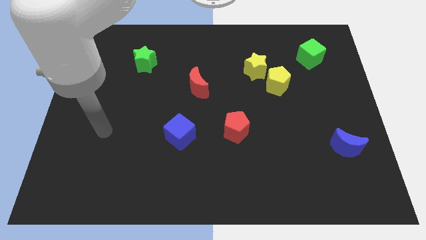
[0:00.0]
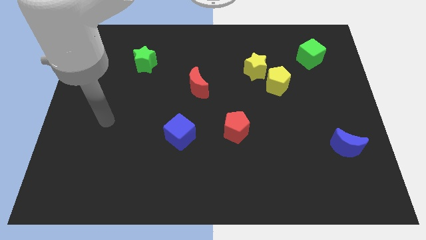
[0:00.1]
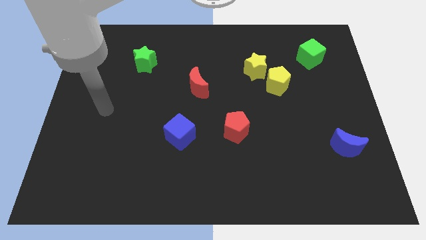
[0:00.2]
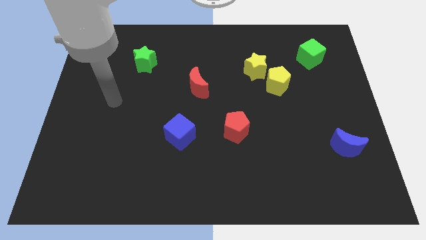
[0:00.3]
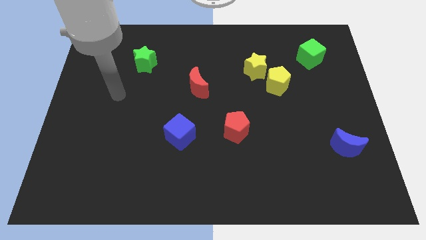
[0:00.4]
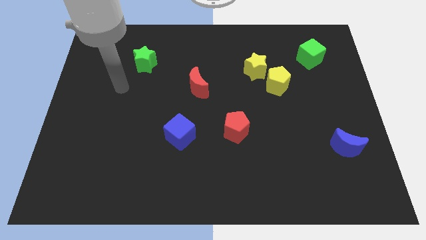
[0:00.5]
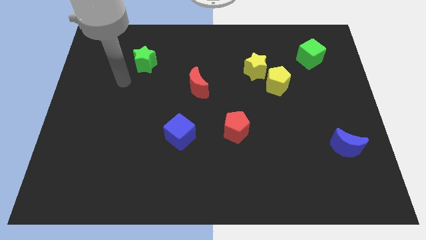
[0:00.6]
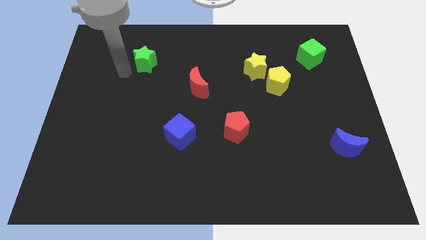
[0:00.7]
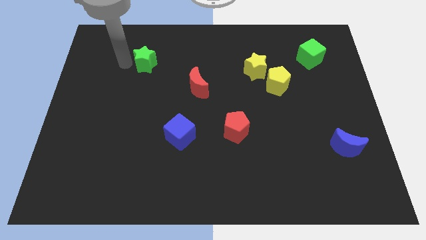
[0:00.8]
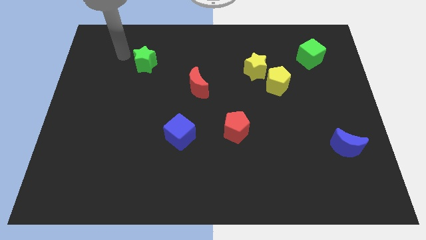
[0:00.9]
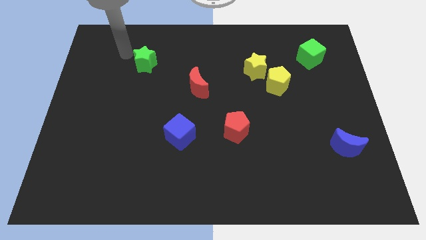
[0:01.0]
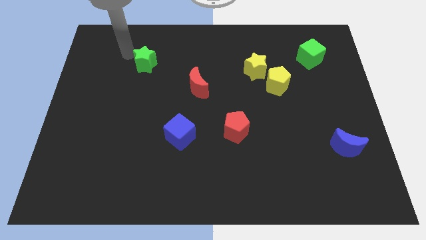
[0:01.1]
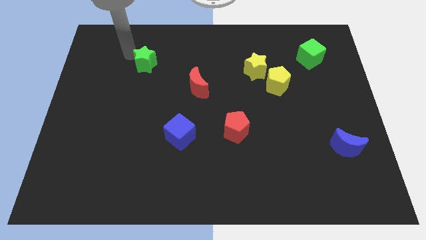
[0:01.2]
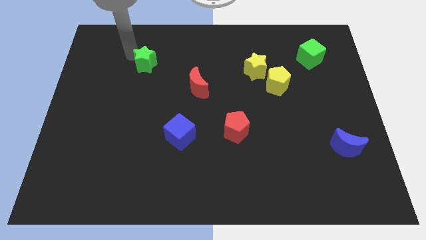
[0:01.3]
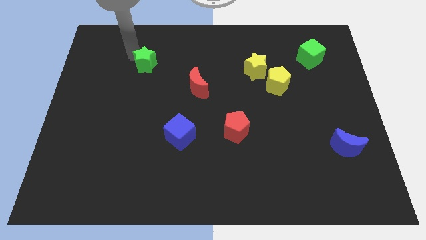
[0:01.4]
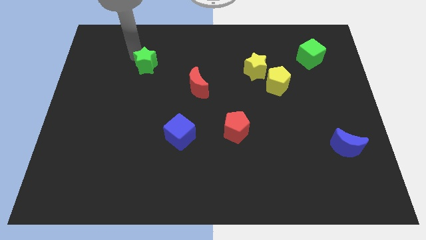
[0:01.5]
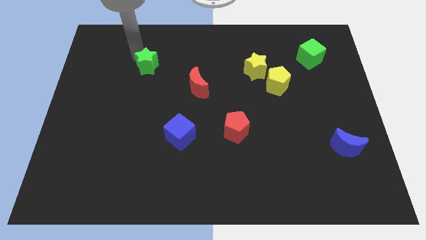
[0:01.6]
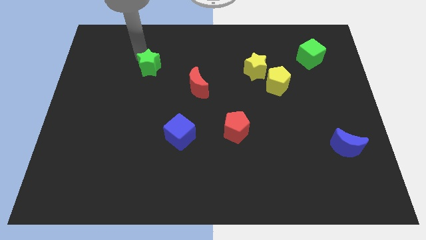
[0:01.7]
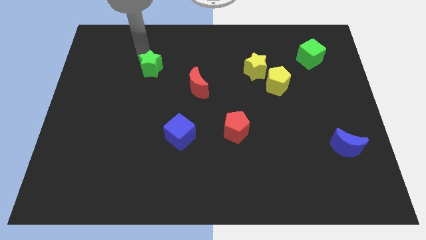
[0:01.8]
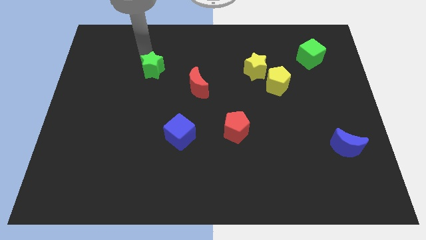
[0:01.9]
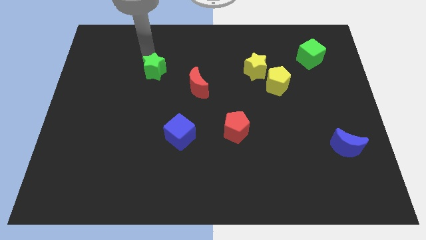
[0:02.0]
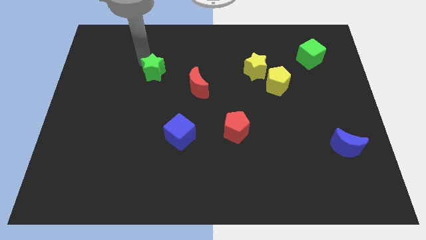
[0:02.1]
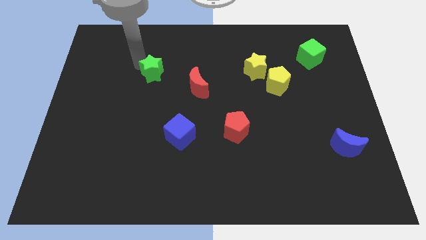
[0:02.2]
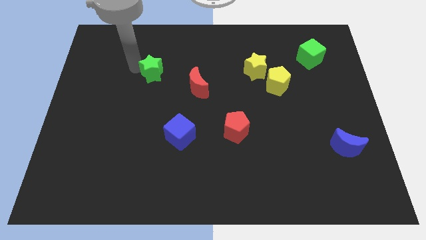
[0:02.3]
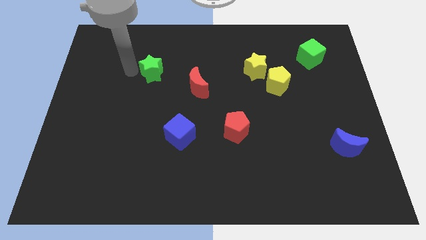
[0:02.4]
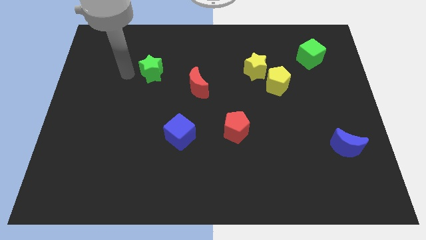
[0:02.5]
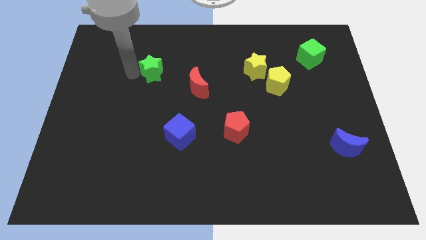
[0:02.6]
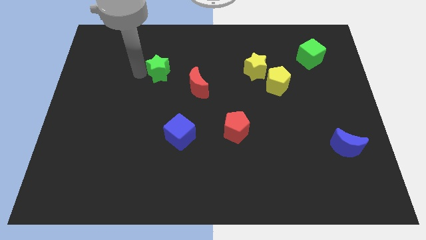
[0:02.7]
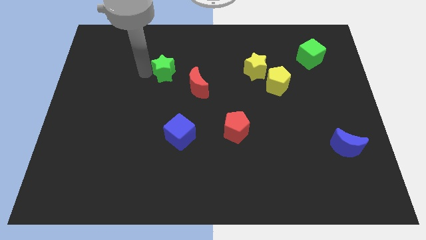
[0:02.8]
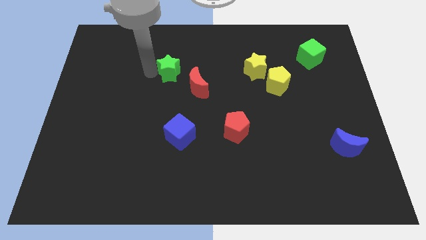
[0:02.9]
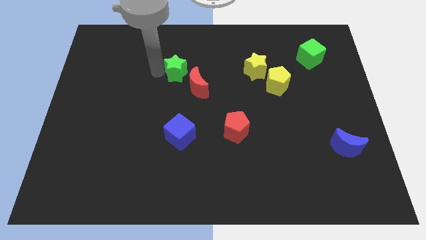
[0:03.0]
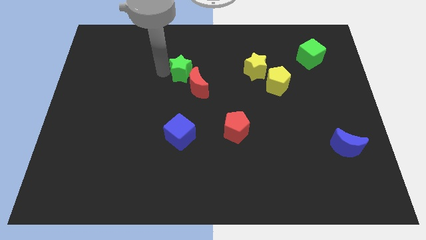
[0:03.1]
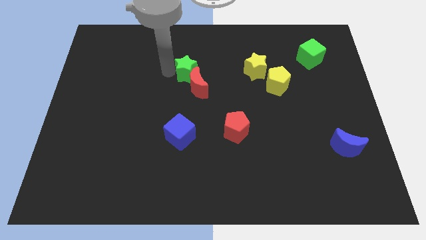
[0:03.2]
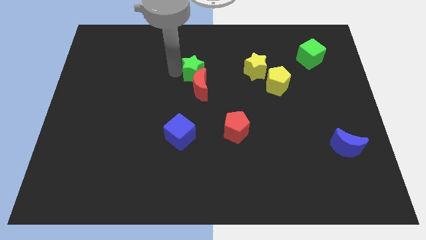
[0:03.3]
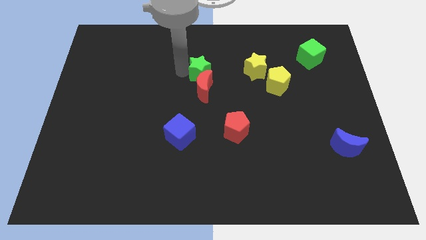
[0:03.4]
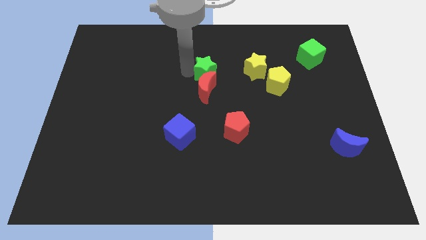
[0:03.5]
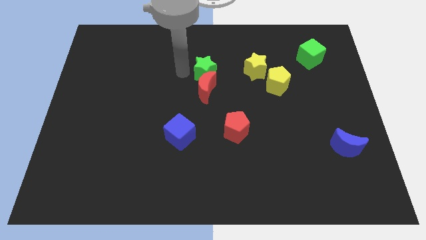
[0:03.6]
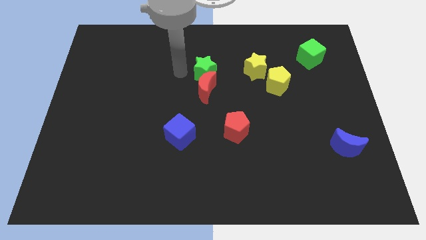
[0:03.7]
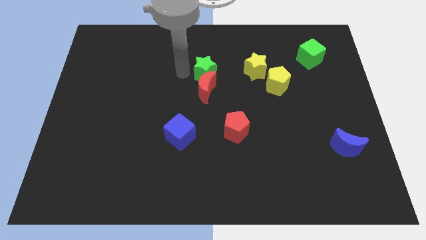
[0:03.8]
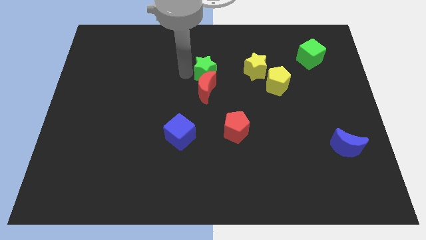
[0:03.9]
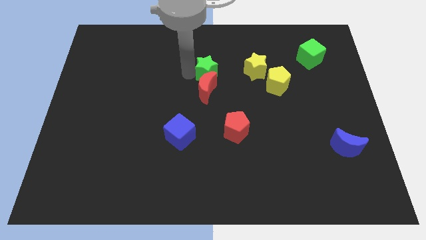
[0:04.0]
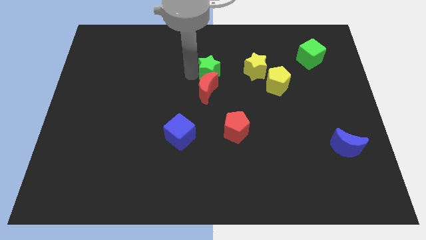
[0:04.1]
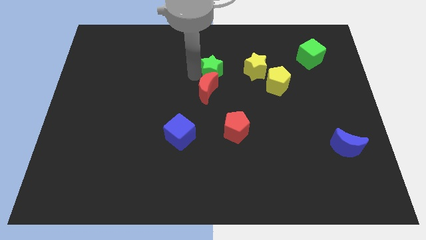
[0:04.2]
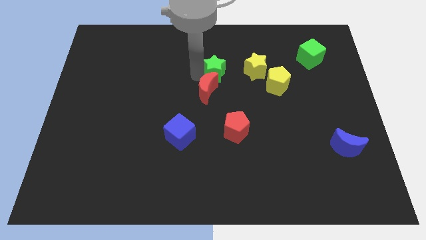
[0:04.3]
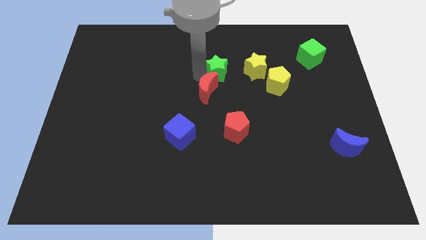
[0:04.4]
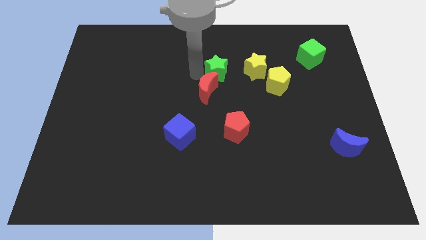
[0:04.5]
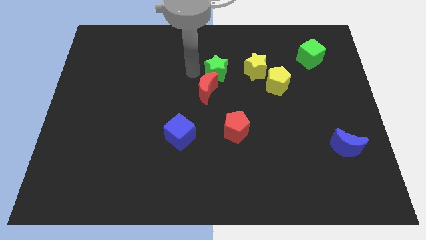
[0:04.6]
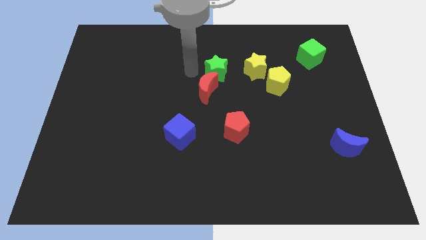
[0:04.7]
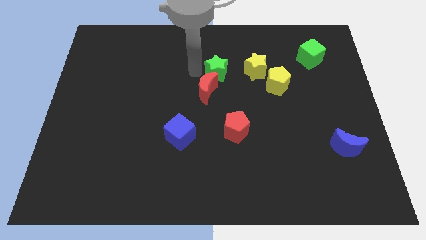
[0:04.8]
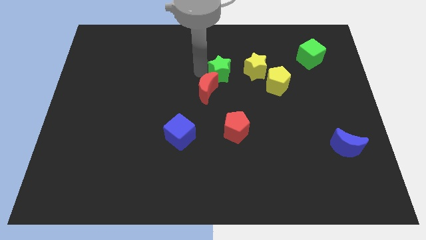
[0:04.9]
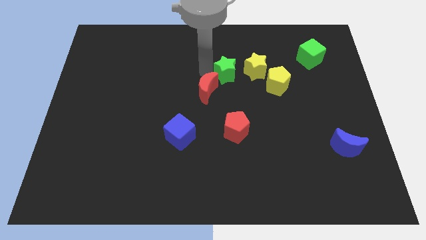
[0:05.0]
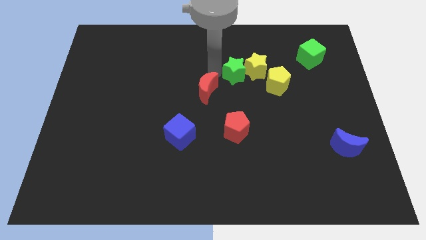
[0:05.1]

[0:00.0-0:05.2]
put the green star towards the yellow star

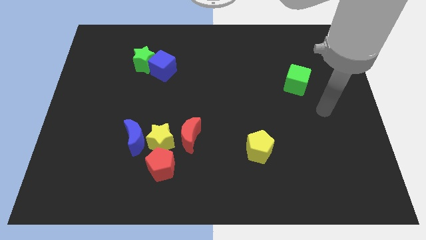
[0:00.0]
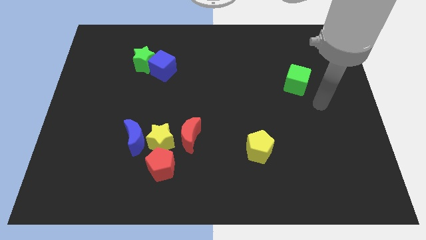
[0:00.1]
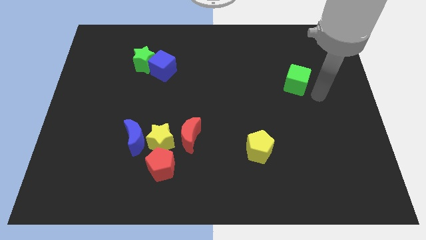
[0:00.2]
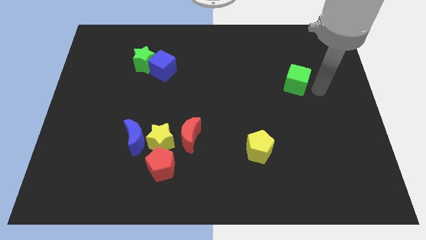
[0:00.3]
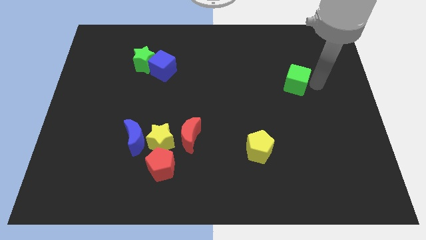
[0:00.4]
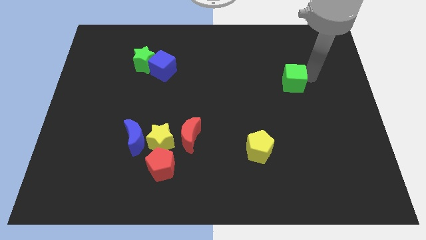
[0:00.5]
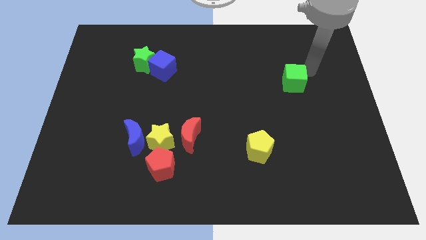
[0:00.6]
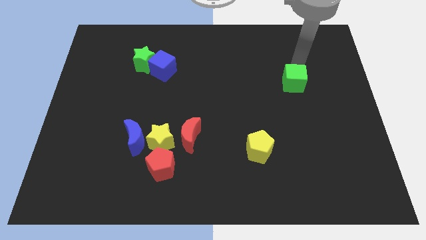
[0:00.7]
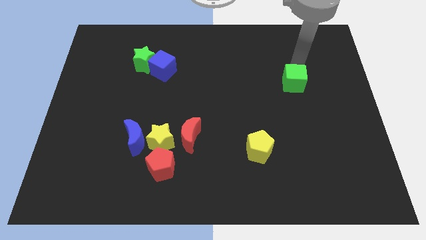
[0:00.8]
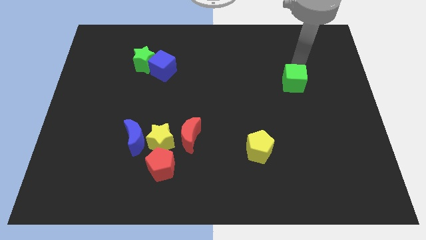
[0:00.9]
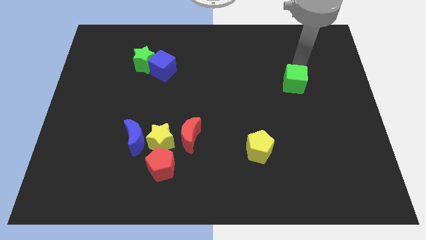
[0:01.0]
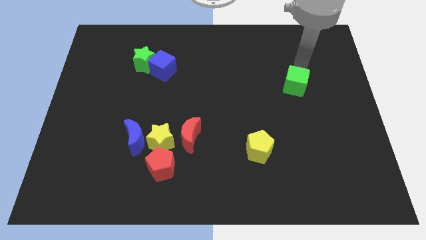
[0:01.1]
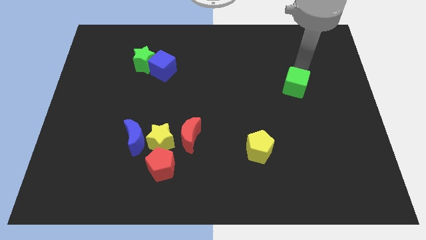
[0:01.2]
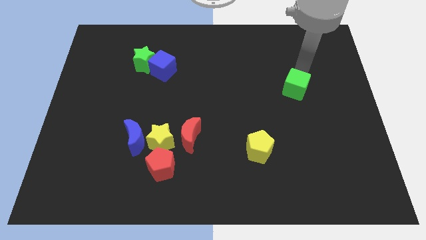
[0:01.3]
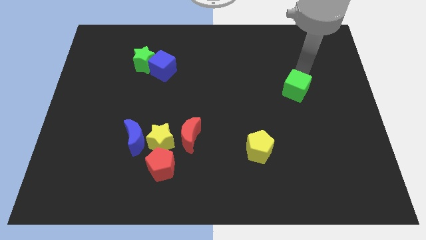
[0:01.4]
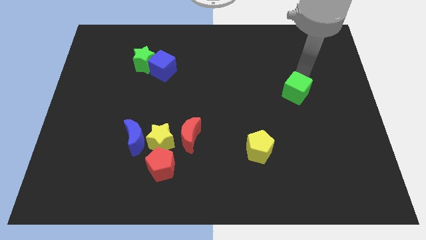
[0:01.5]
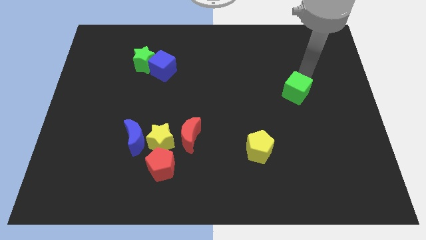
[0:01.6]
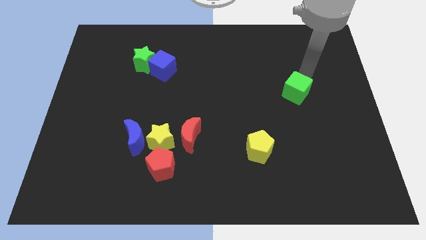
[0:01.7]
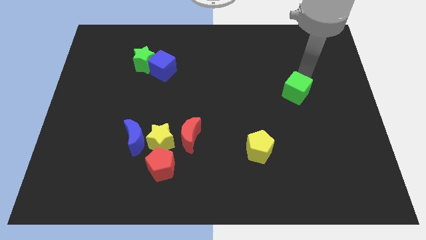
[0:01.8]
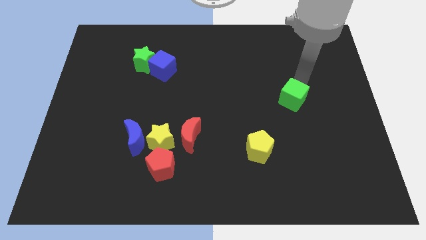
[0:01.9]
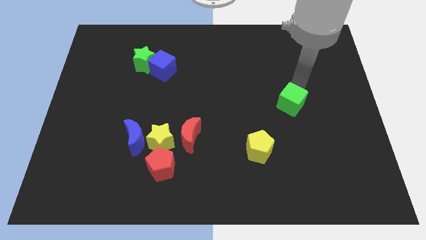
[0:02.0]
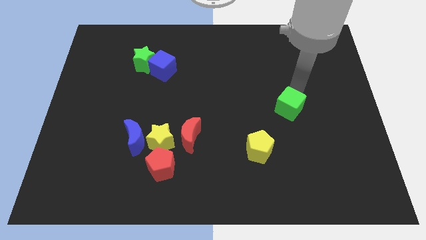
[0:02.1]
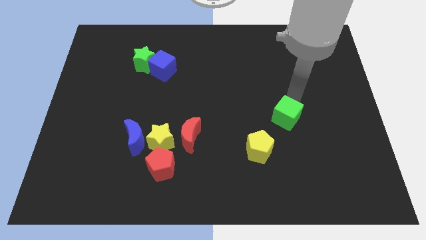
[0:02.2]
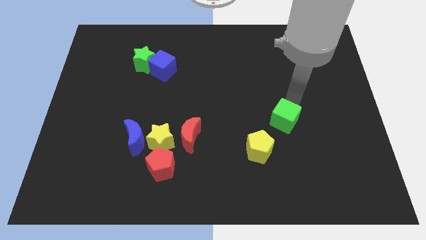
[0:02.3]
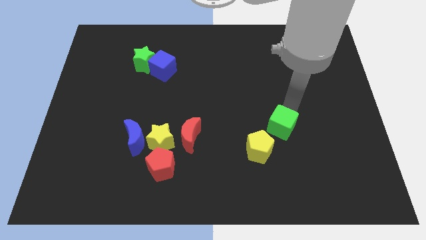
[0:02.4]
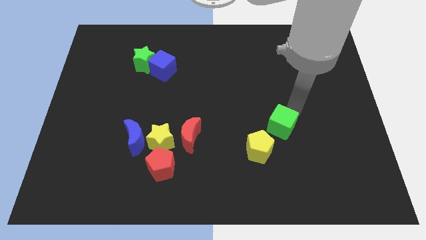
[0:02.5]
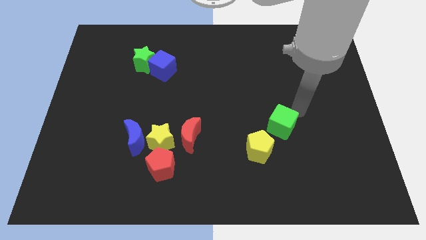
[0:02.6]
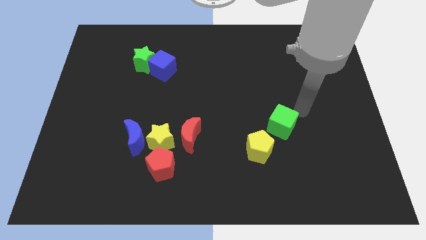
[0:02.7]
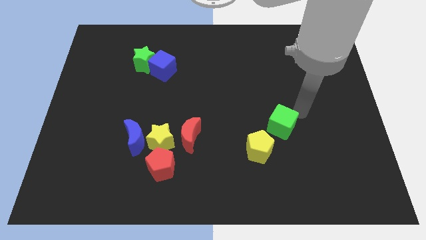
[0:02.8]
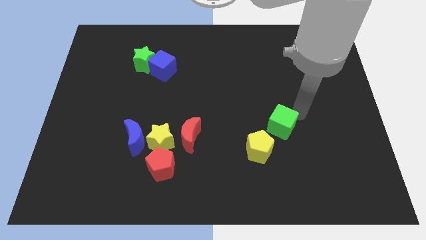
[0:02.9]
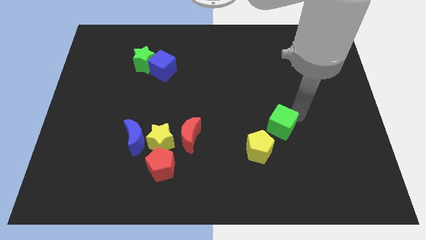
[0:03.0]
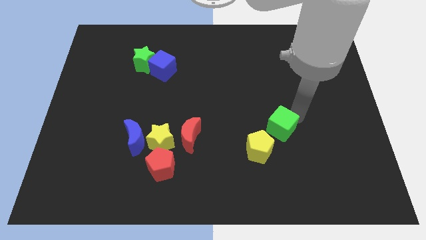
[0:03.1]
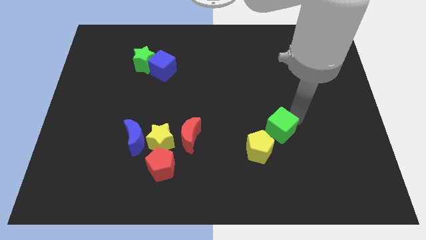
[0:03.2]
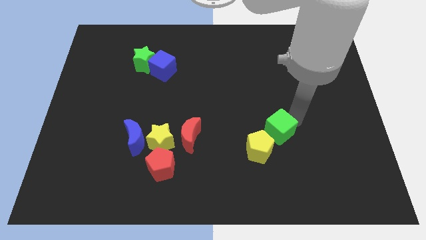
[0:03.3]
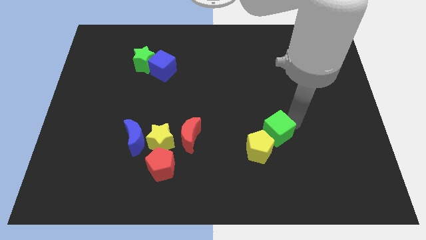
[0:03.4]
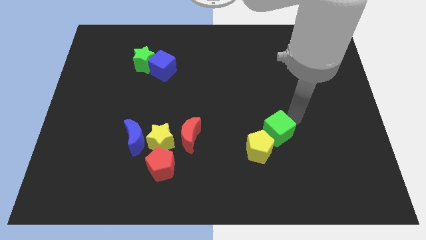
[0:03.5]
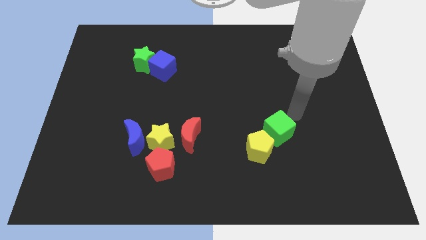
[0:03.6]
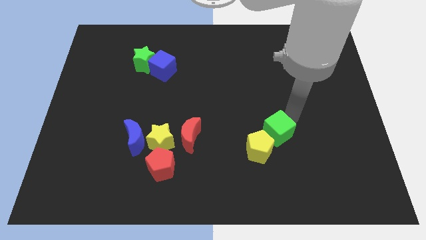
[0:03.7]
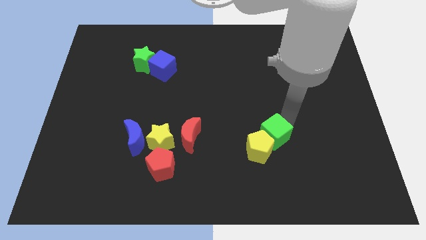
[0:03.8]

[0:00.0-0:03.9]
push the green cube to the yellow pentagon
